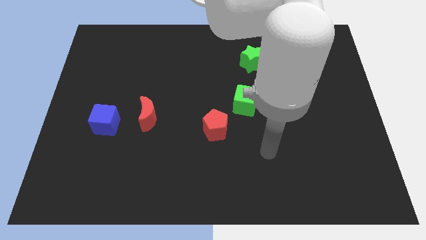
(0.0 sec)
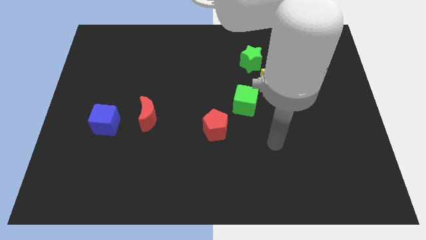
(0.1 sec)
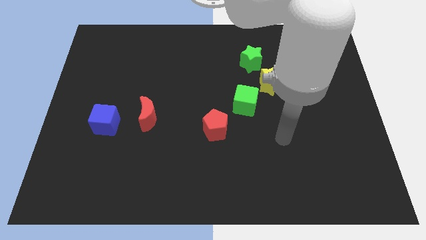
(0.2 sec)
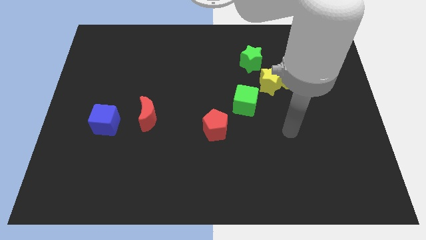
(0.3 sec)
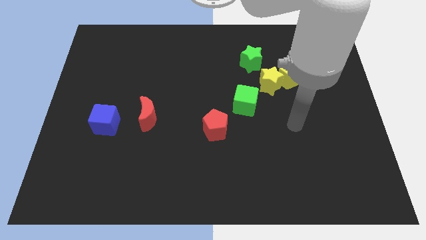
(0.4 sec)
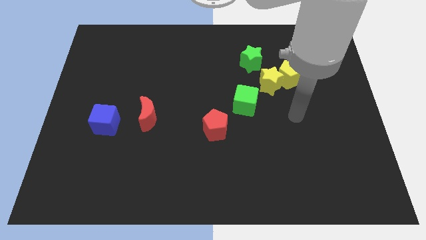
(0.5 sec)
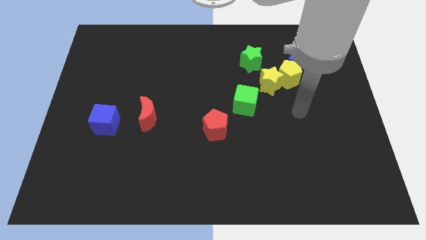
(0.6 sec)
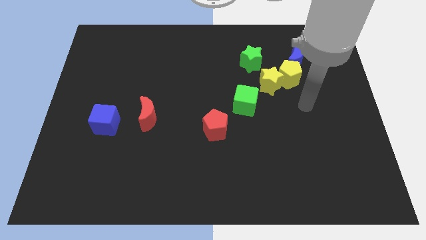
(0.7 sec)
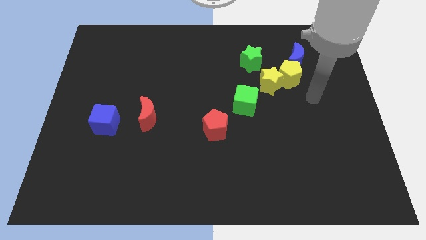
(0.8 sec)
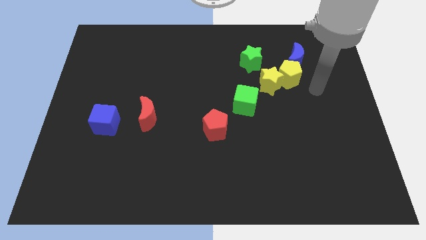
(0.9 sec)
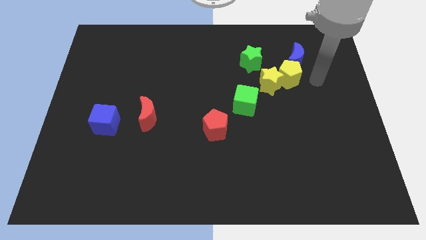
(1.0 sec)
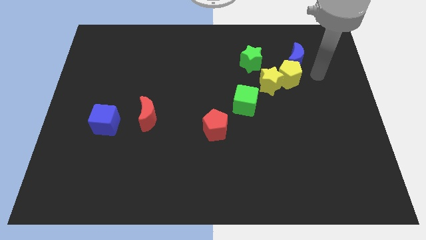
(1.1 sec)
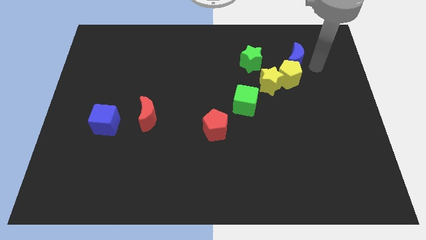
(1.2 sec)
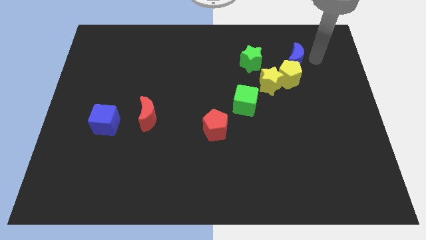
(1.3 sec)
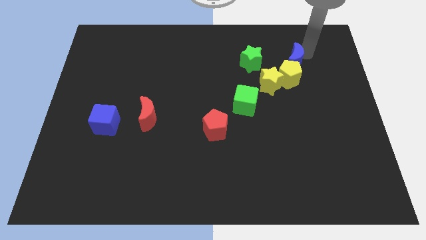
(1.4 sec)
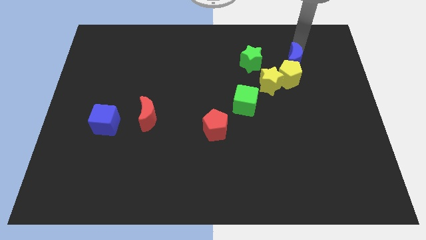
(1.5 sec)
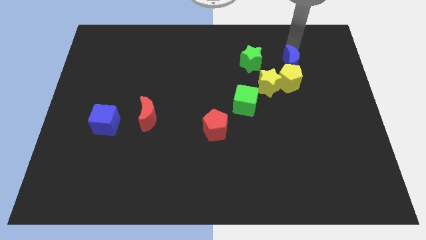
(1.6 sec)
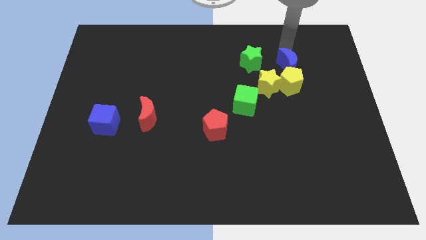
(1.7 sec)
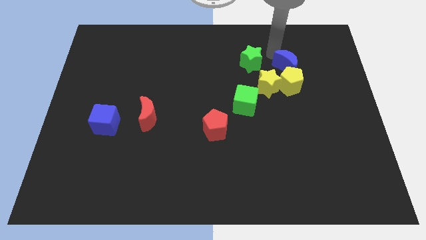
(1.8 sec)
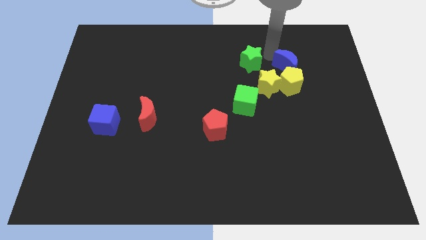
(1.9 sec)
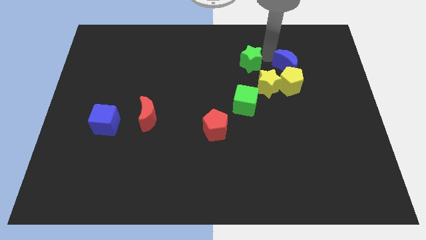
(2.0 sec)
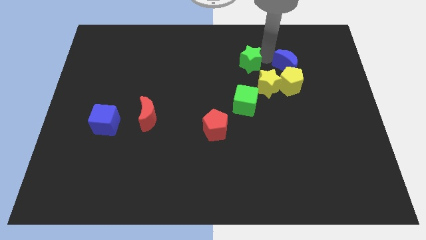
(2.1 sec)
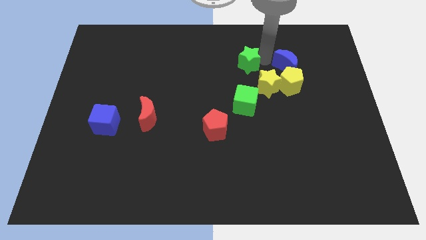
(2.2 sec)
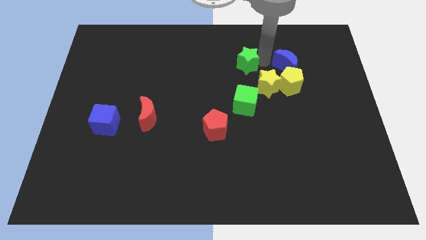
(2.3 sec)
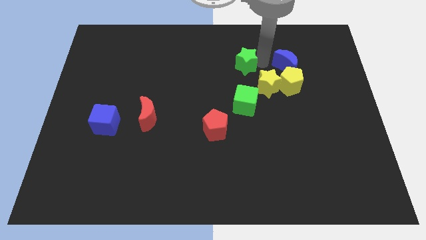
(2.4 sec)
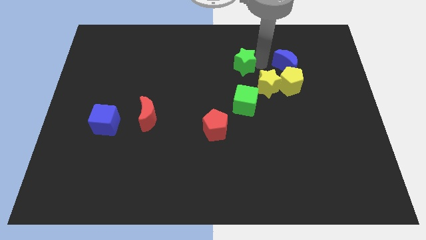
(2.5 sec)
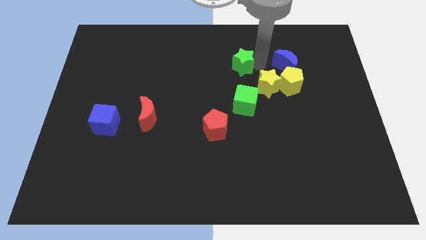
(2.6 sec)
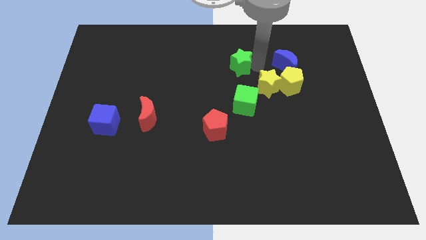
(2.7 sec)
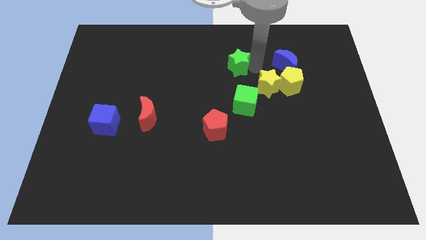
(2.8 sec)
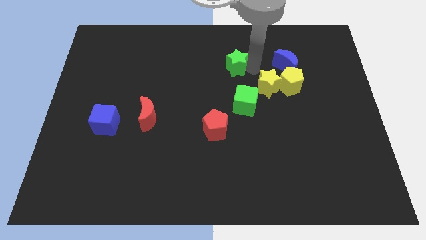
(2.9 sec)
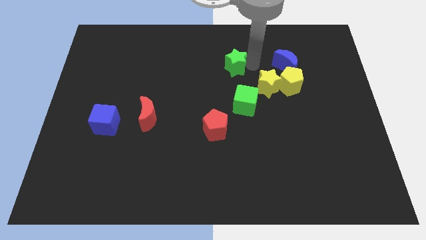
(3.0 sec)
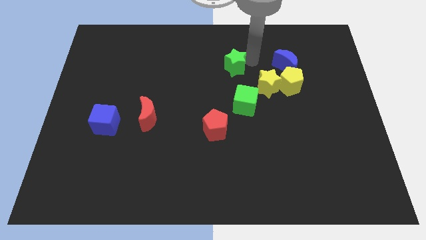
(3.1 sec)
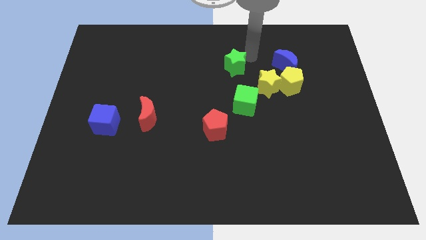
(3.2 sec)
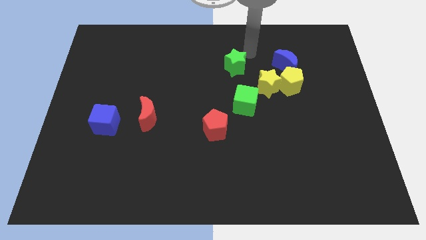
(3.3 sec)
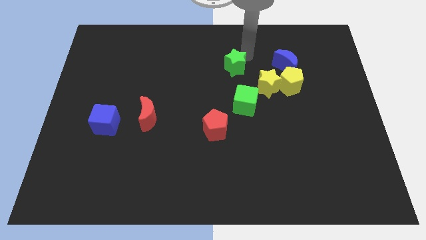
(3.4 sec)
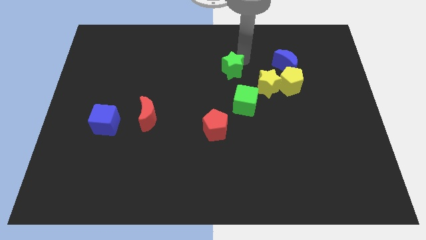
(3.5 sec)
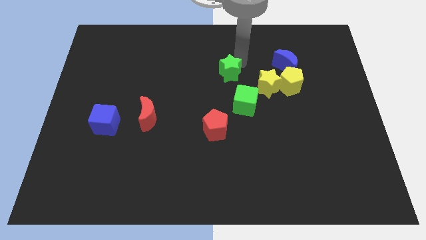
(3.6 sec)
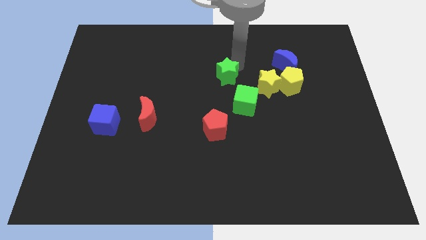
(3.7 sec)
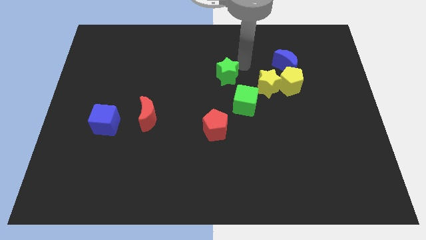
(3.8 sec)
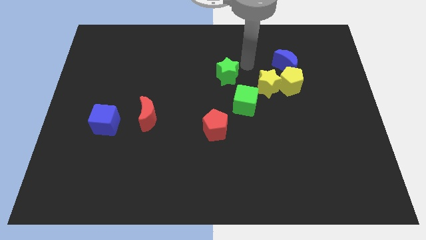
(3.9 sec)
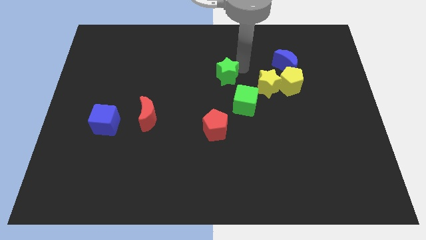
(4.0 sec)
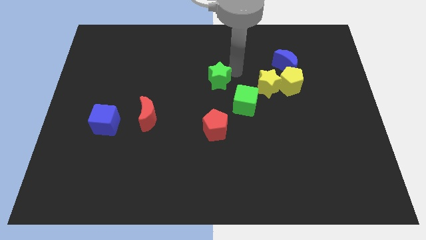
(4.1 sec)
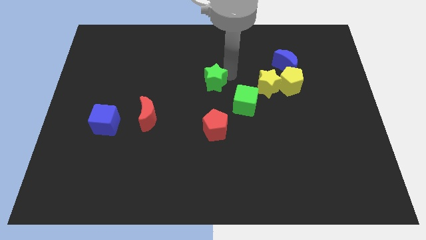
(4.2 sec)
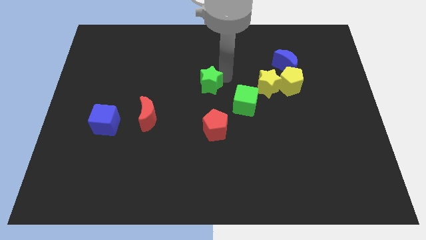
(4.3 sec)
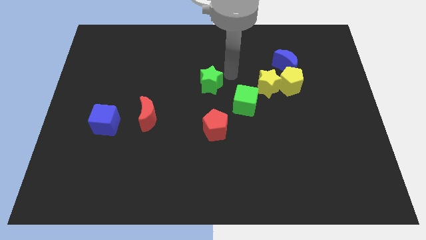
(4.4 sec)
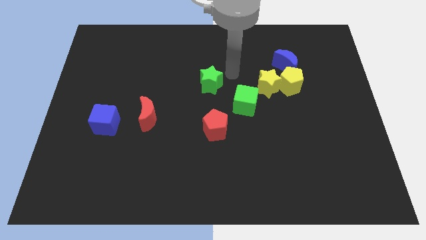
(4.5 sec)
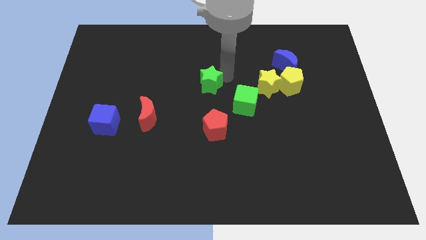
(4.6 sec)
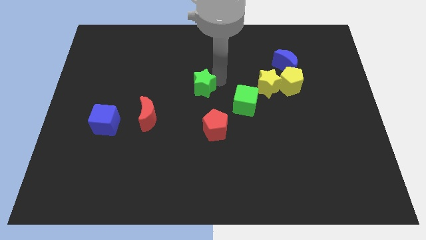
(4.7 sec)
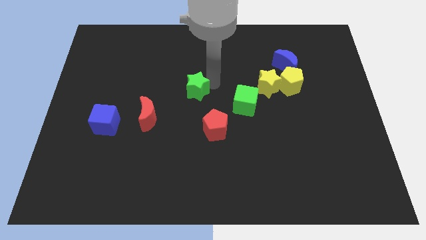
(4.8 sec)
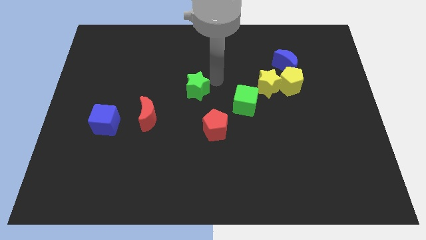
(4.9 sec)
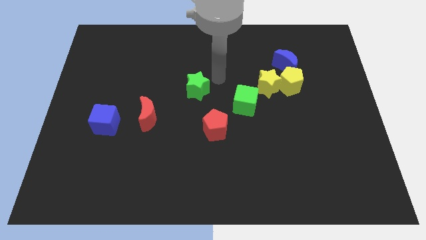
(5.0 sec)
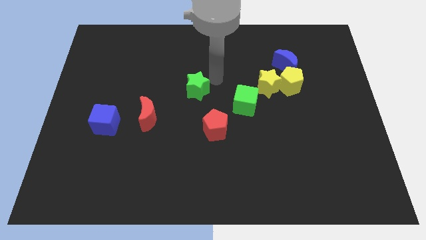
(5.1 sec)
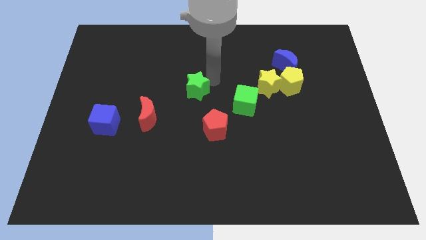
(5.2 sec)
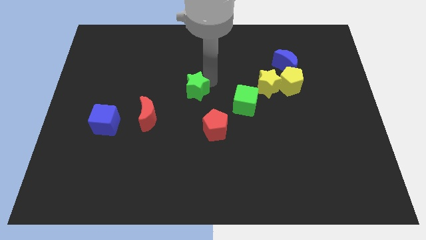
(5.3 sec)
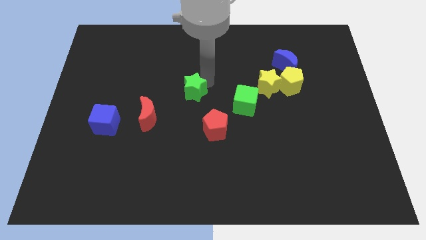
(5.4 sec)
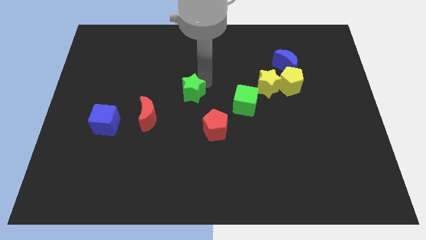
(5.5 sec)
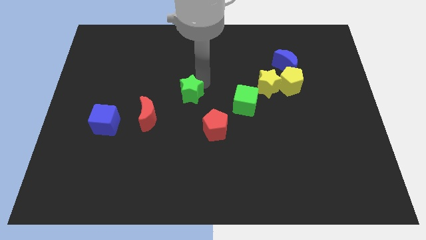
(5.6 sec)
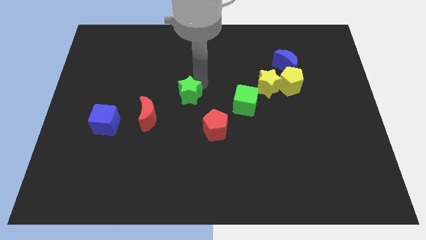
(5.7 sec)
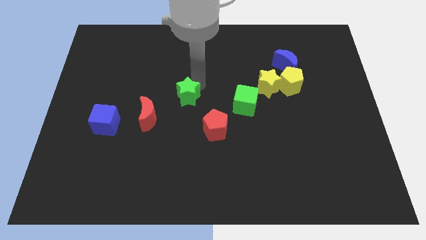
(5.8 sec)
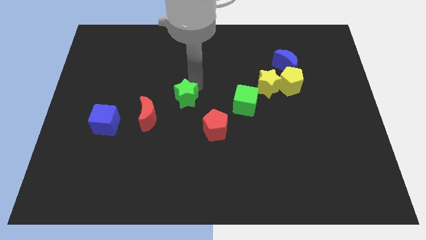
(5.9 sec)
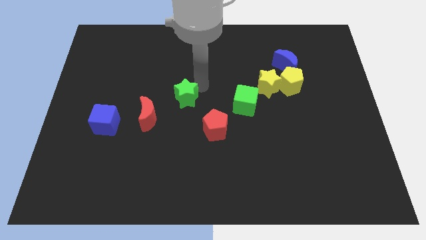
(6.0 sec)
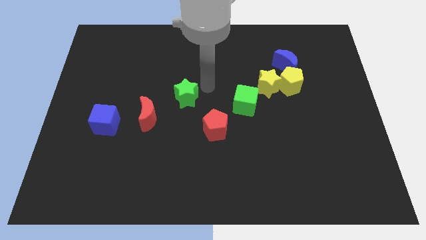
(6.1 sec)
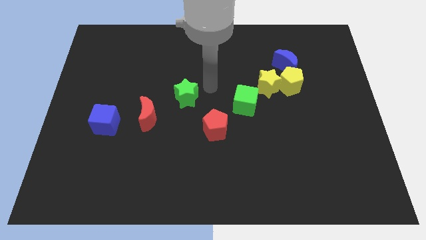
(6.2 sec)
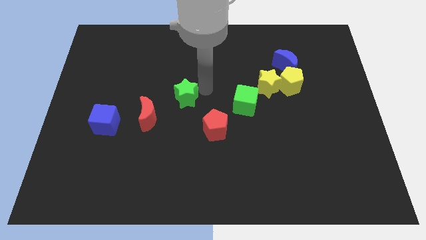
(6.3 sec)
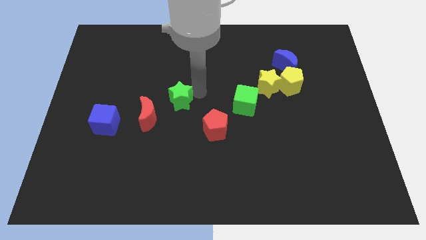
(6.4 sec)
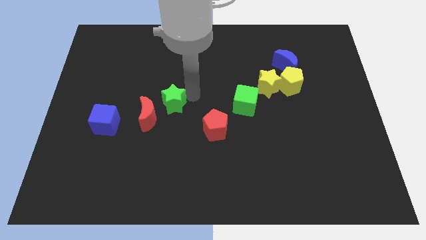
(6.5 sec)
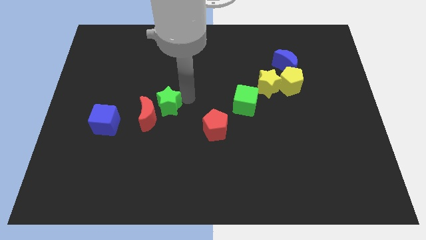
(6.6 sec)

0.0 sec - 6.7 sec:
push the green star towards the red moon

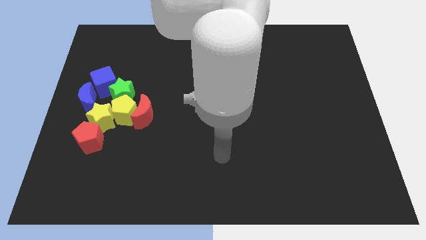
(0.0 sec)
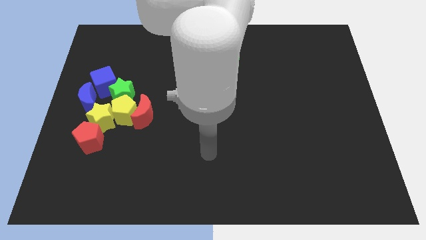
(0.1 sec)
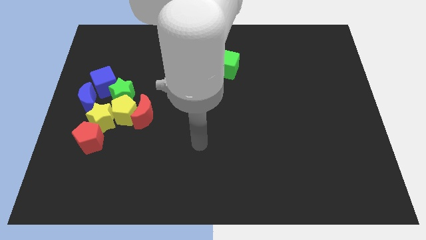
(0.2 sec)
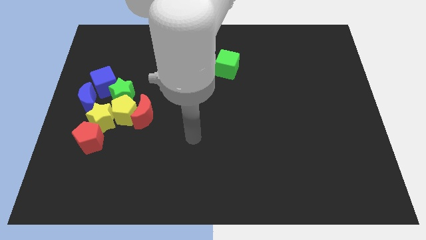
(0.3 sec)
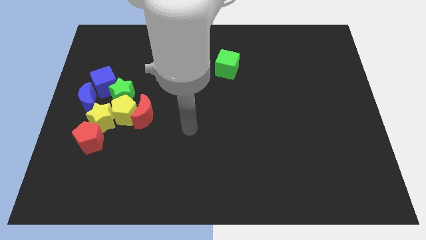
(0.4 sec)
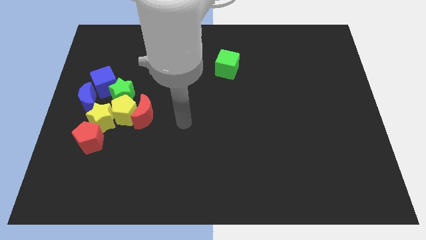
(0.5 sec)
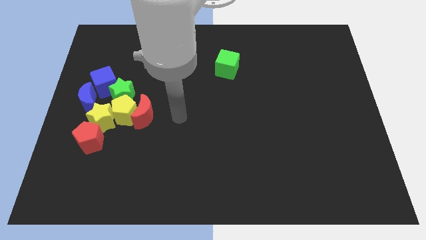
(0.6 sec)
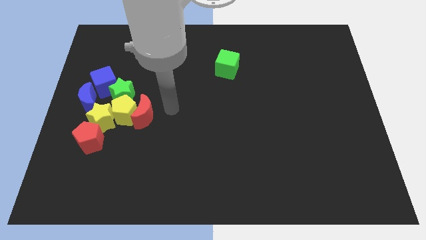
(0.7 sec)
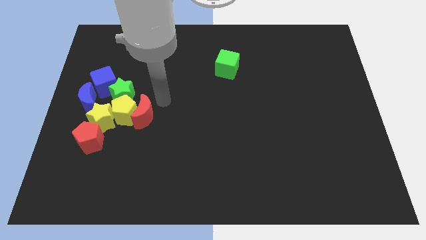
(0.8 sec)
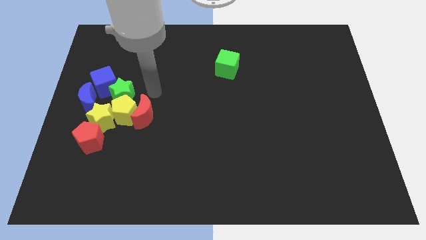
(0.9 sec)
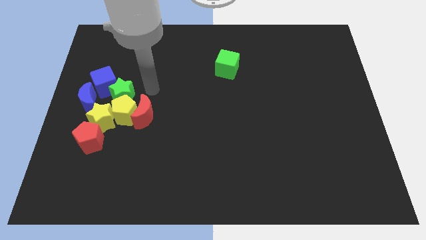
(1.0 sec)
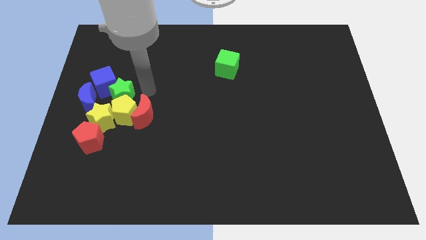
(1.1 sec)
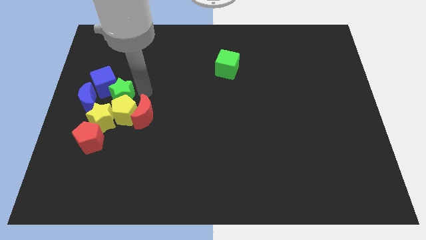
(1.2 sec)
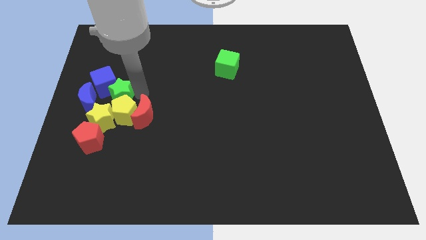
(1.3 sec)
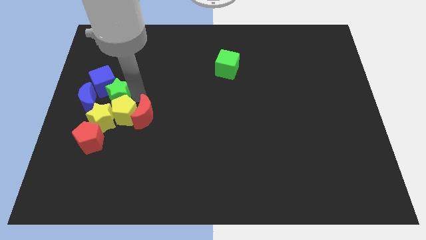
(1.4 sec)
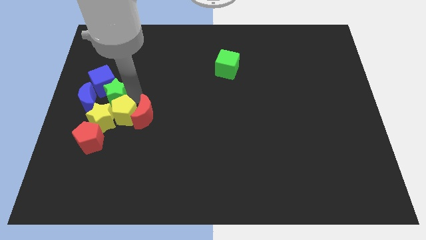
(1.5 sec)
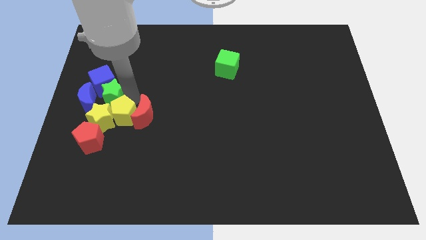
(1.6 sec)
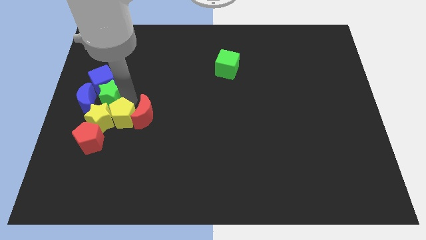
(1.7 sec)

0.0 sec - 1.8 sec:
put the green star towards the blue moon
